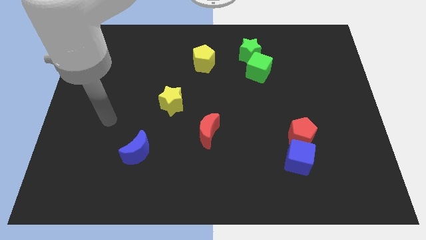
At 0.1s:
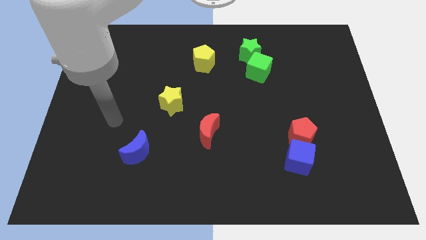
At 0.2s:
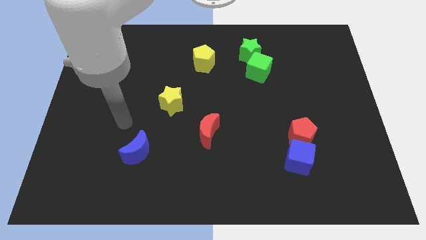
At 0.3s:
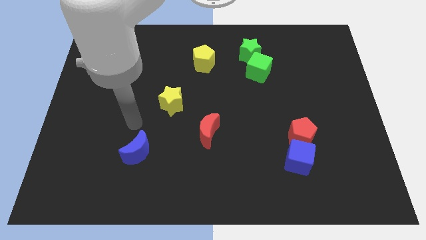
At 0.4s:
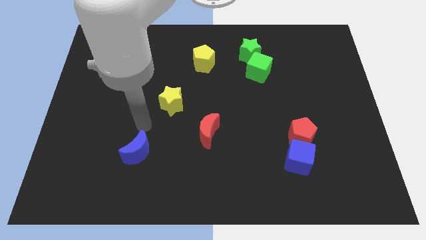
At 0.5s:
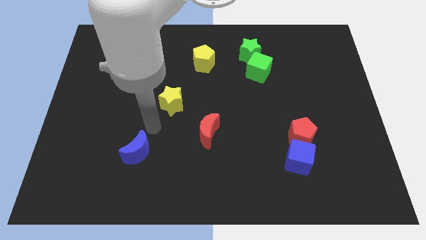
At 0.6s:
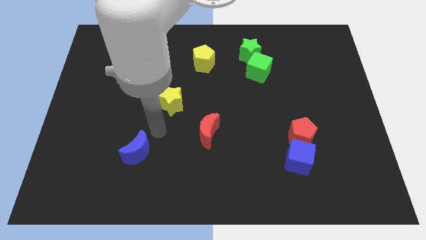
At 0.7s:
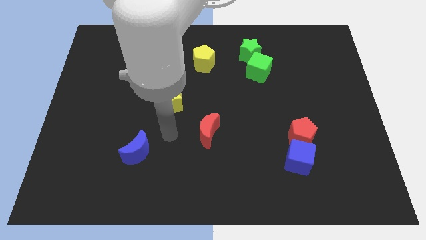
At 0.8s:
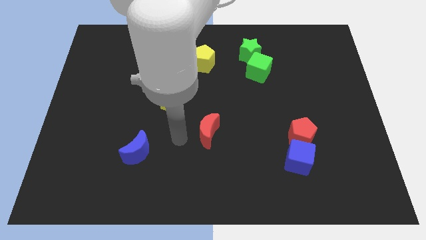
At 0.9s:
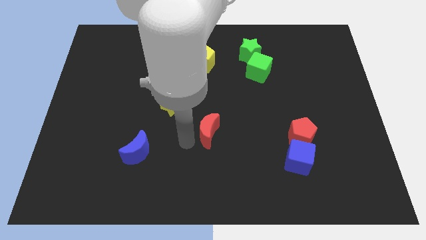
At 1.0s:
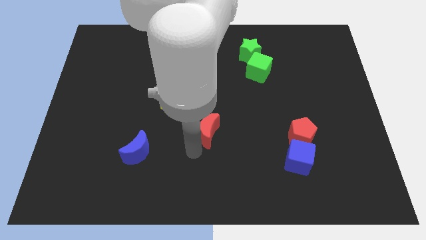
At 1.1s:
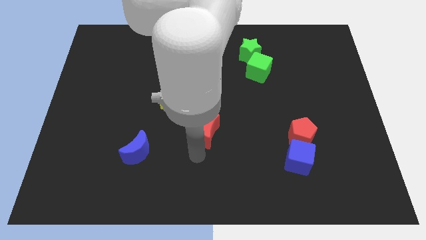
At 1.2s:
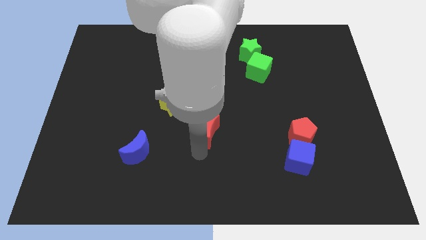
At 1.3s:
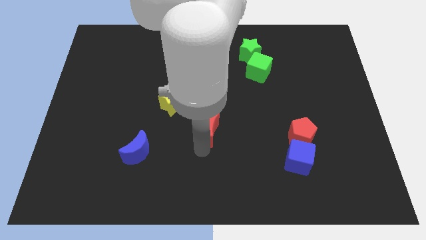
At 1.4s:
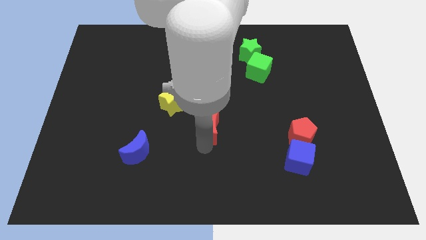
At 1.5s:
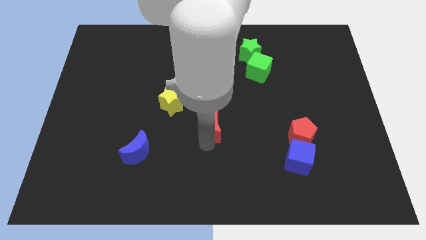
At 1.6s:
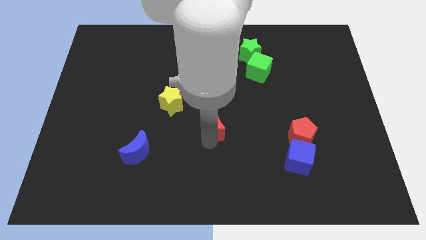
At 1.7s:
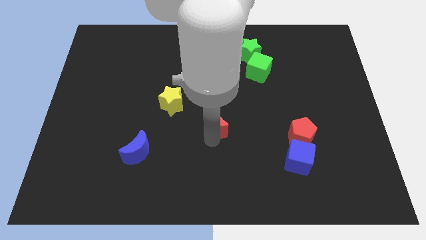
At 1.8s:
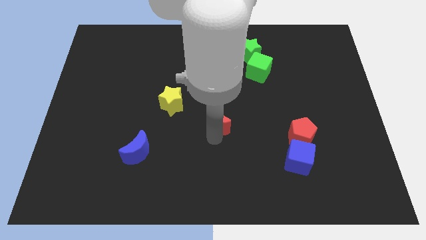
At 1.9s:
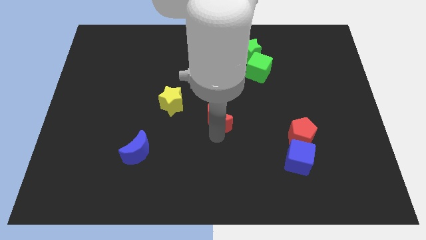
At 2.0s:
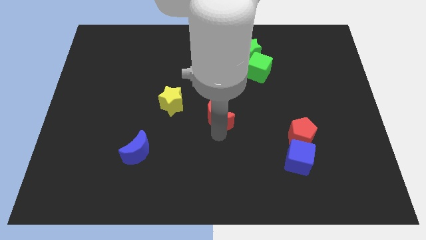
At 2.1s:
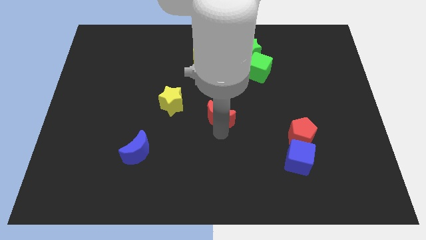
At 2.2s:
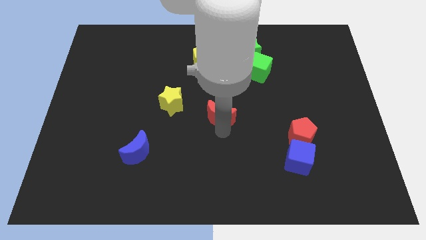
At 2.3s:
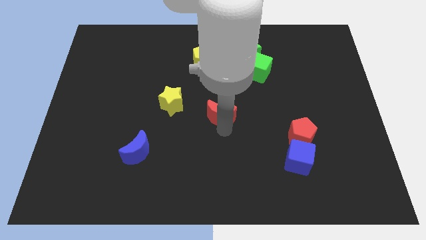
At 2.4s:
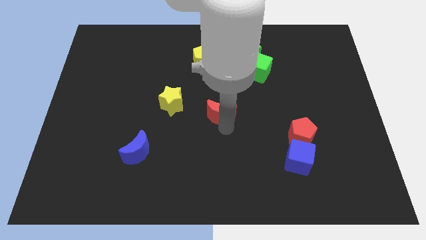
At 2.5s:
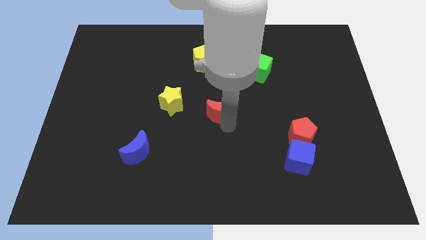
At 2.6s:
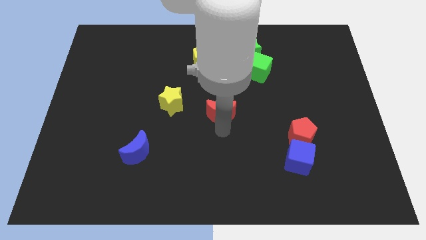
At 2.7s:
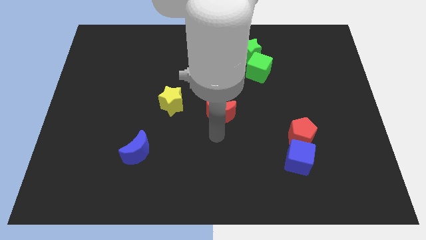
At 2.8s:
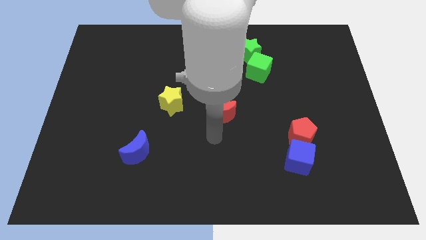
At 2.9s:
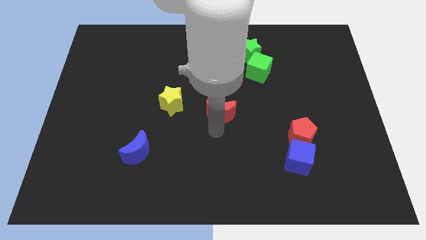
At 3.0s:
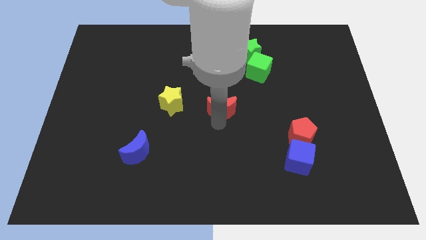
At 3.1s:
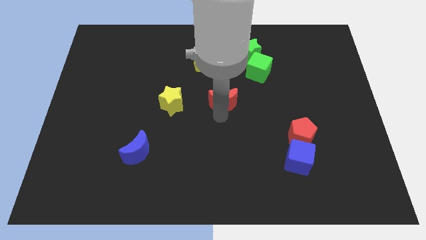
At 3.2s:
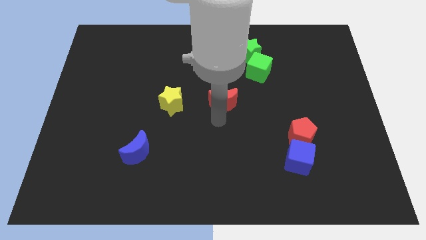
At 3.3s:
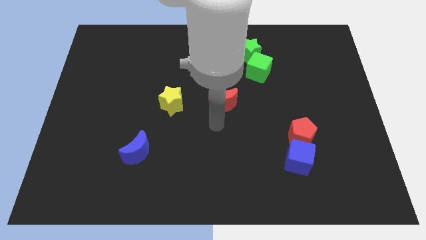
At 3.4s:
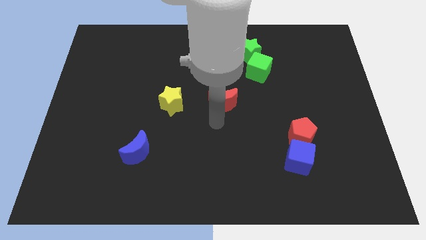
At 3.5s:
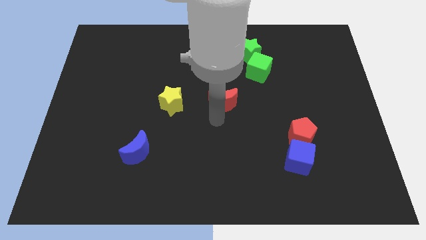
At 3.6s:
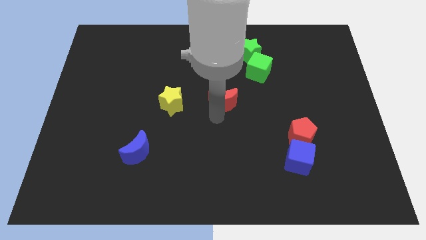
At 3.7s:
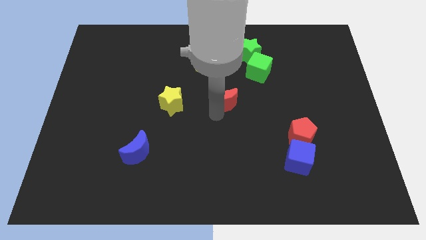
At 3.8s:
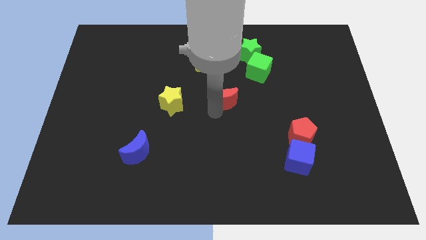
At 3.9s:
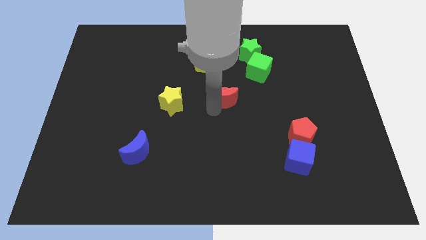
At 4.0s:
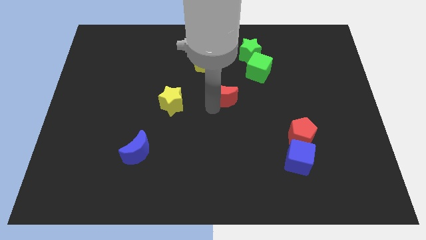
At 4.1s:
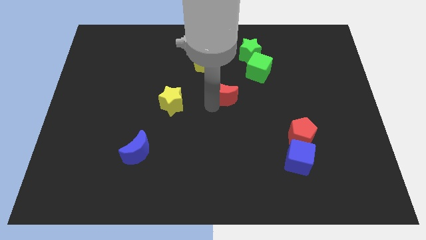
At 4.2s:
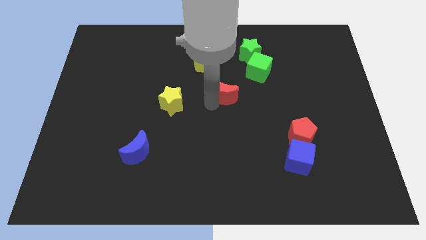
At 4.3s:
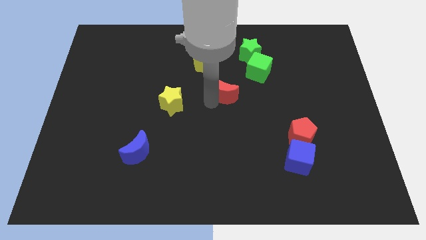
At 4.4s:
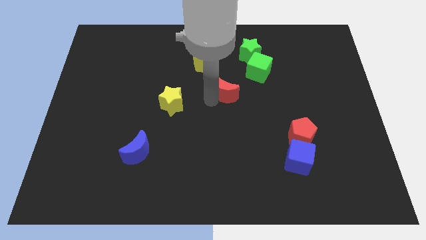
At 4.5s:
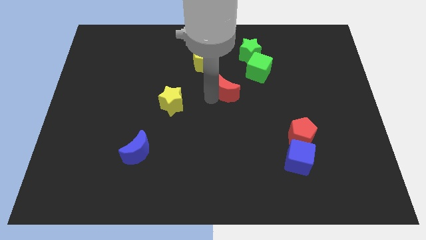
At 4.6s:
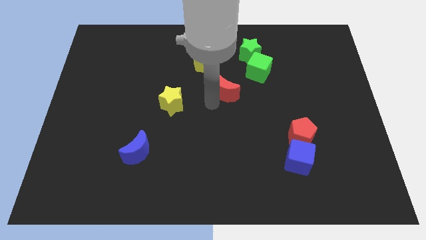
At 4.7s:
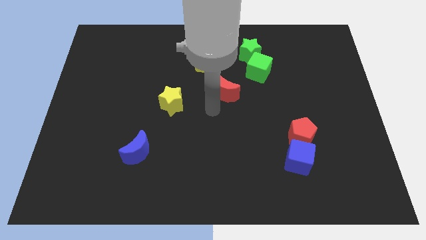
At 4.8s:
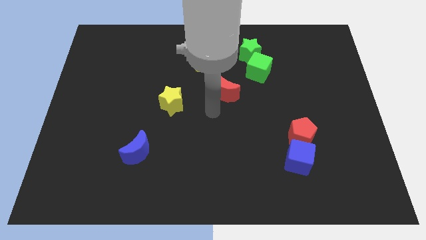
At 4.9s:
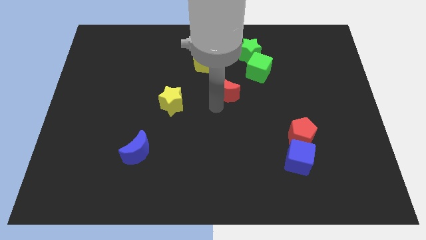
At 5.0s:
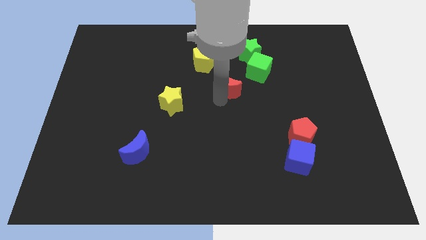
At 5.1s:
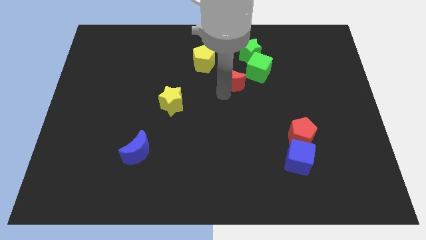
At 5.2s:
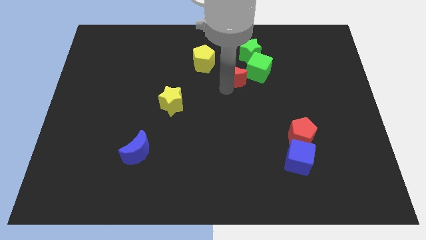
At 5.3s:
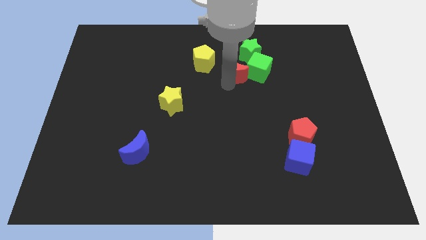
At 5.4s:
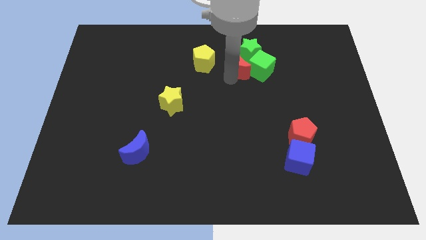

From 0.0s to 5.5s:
put the red moon close to the green star

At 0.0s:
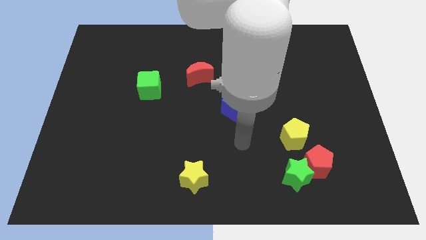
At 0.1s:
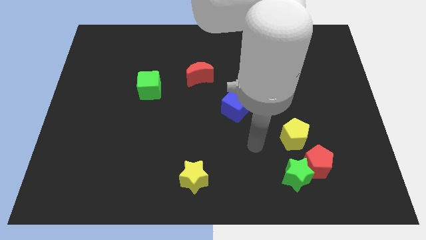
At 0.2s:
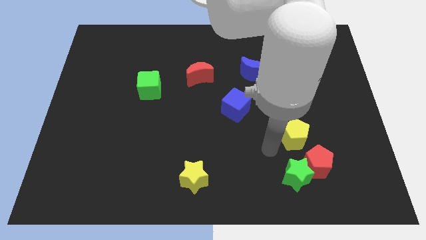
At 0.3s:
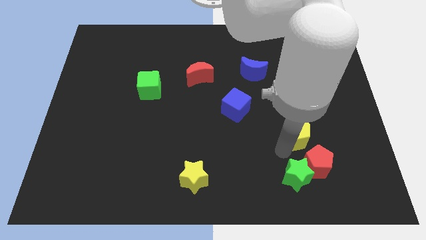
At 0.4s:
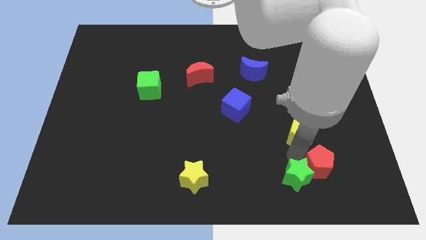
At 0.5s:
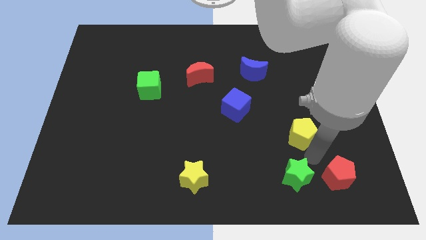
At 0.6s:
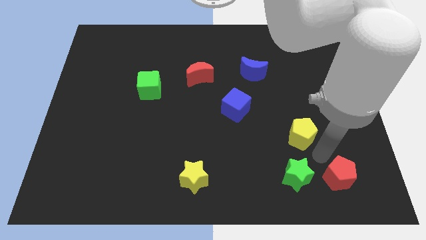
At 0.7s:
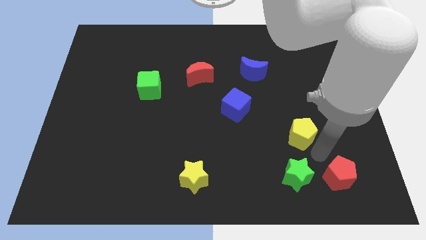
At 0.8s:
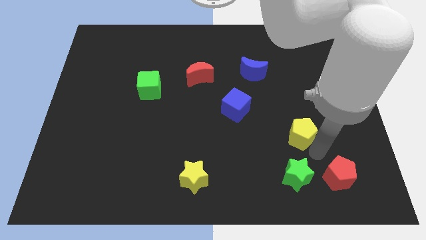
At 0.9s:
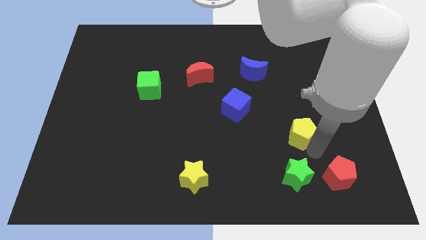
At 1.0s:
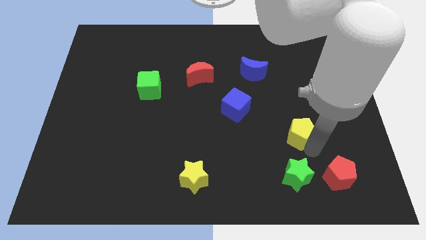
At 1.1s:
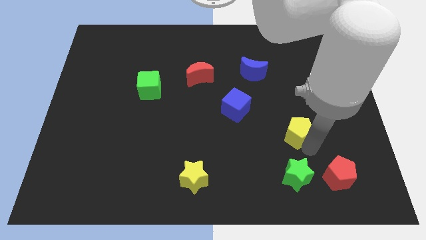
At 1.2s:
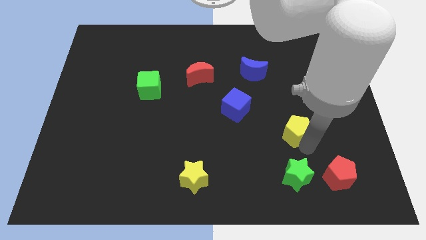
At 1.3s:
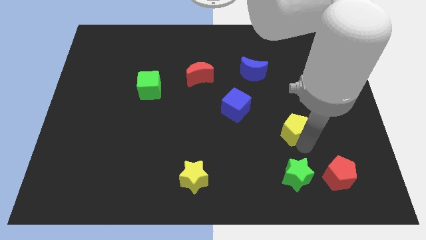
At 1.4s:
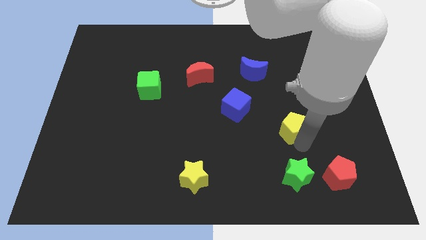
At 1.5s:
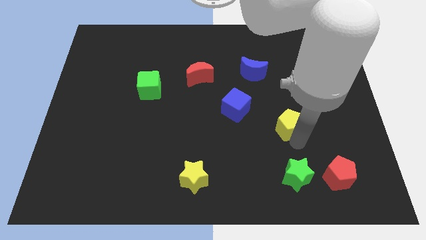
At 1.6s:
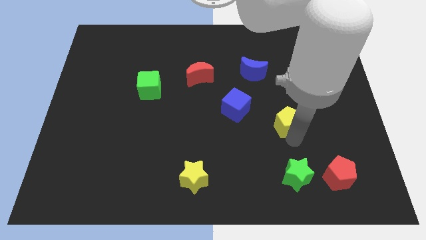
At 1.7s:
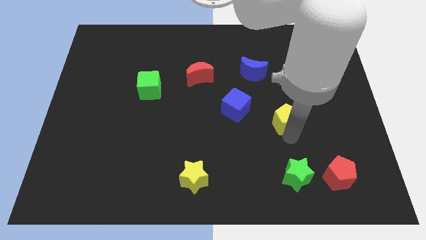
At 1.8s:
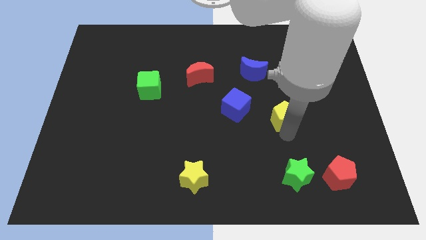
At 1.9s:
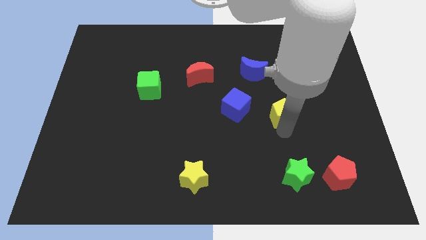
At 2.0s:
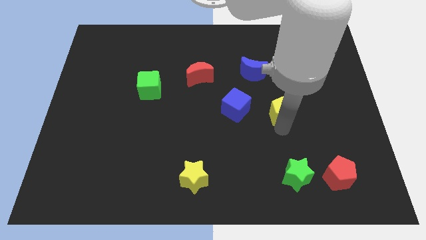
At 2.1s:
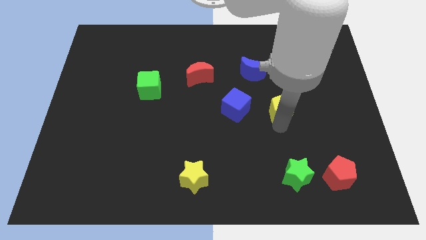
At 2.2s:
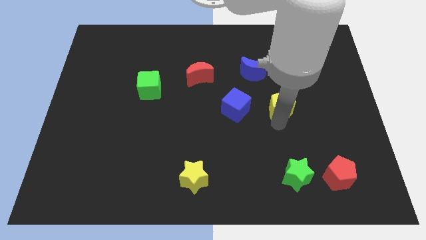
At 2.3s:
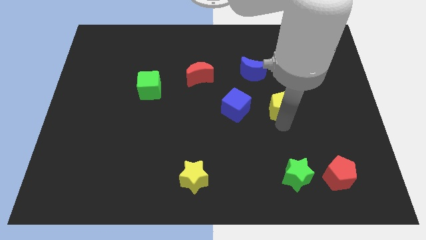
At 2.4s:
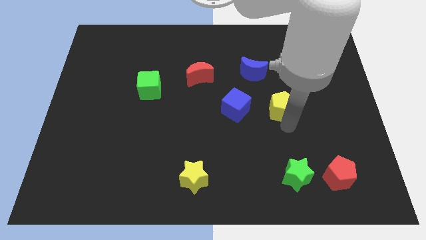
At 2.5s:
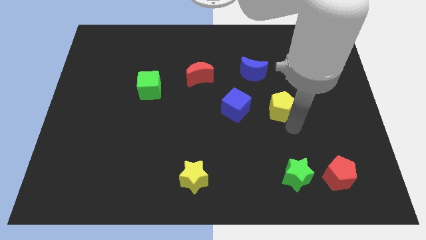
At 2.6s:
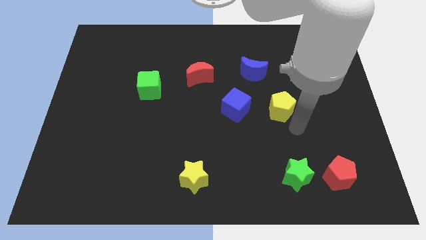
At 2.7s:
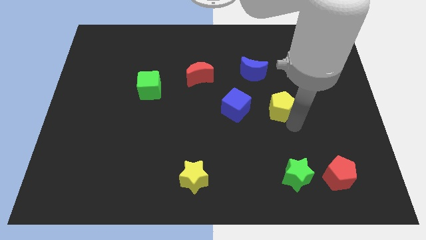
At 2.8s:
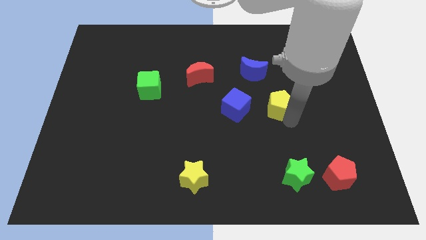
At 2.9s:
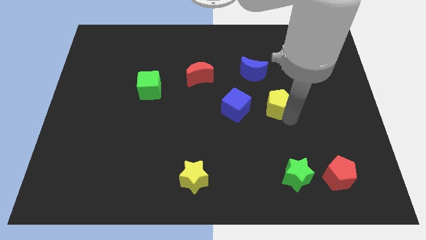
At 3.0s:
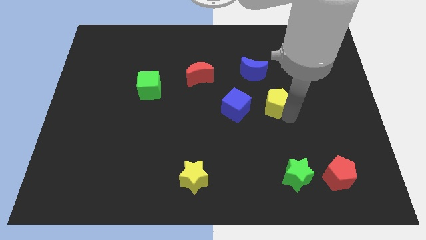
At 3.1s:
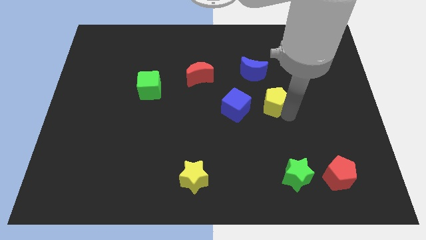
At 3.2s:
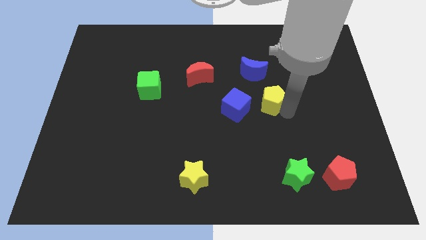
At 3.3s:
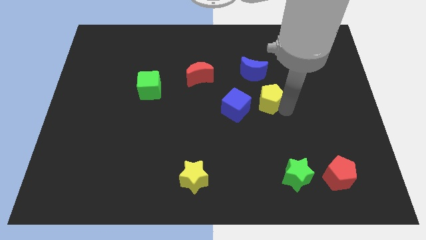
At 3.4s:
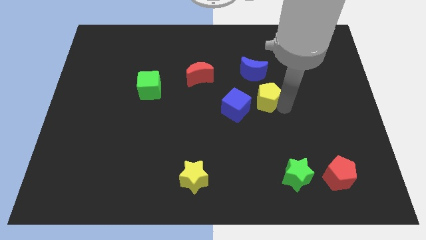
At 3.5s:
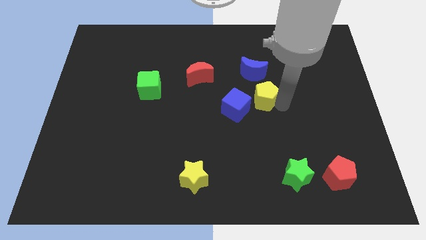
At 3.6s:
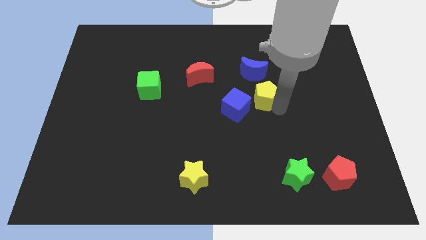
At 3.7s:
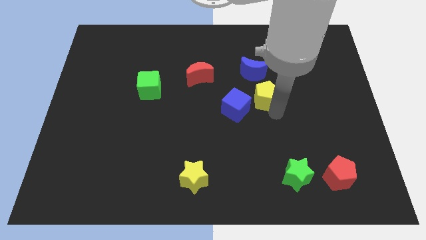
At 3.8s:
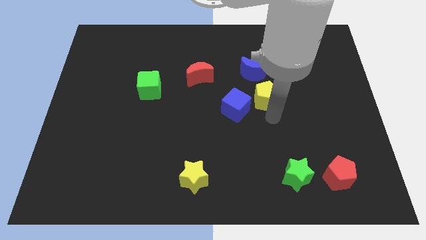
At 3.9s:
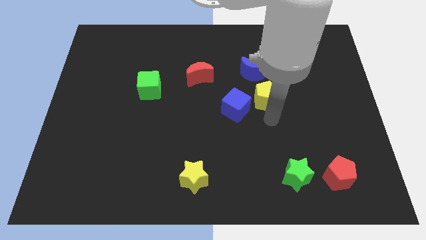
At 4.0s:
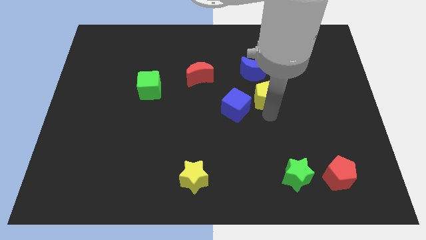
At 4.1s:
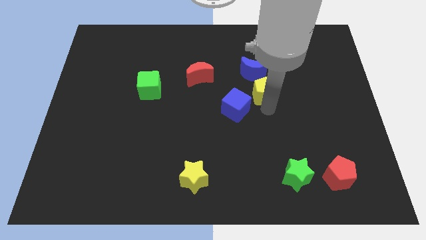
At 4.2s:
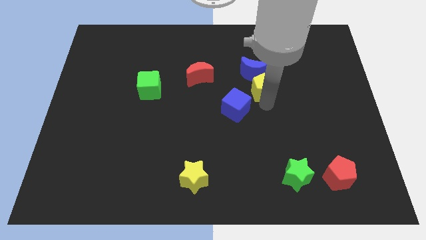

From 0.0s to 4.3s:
slide the yellow pentagon to the blue moon
